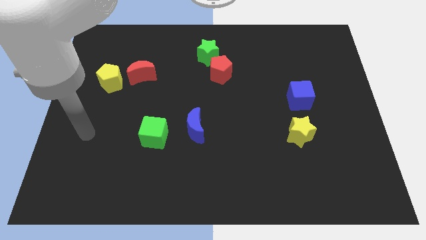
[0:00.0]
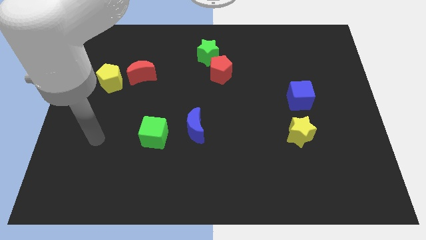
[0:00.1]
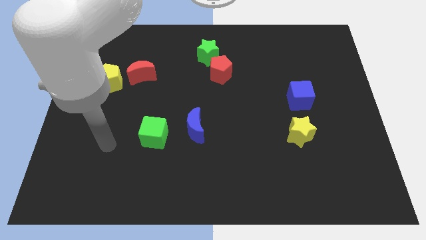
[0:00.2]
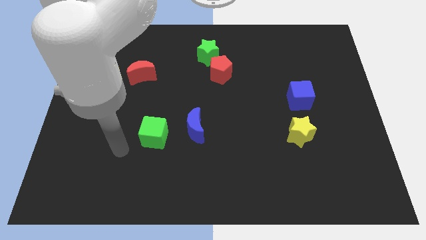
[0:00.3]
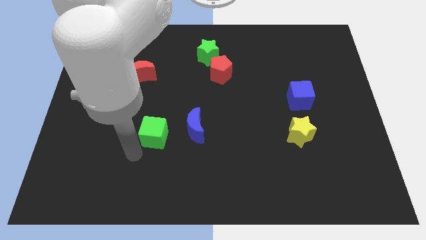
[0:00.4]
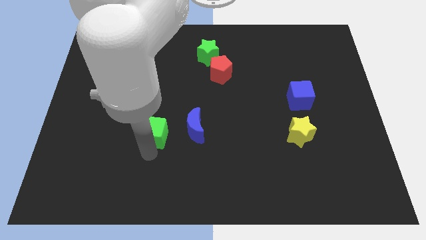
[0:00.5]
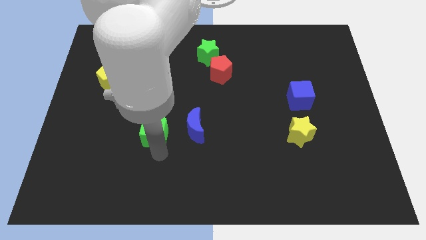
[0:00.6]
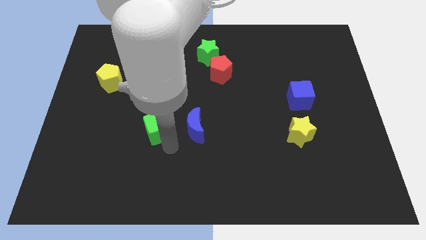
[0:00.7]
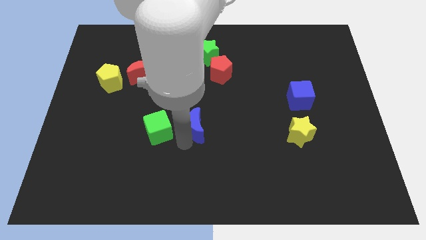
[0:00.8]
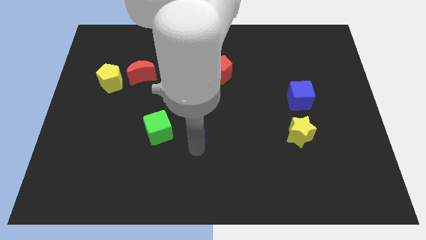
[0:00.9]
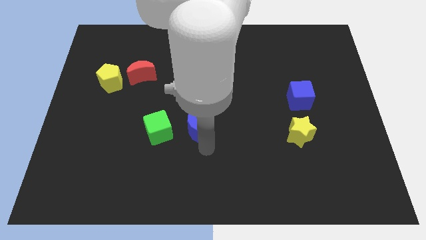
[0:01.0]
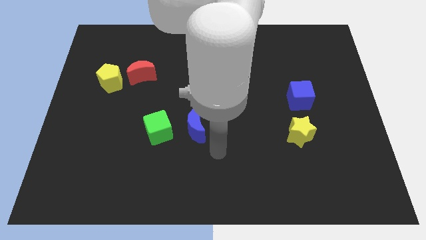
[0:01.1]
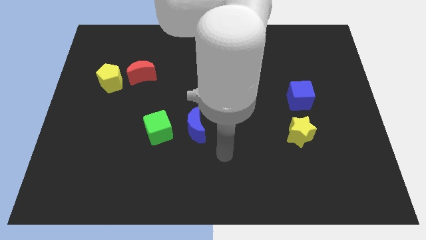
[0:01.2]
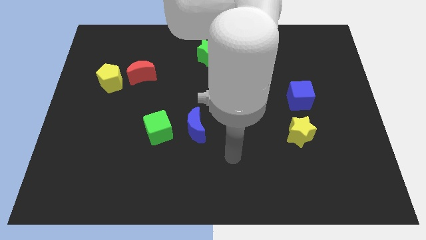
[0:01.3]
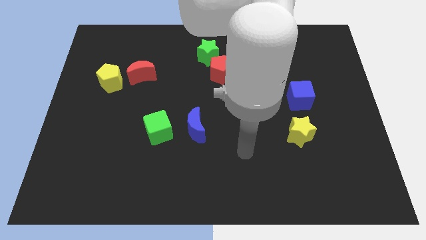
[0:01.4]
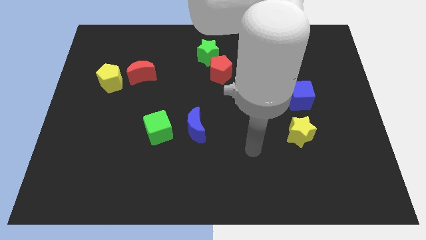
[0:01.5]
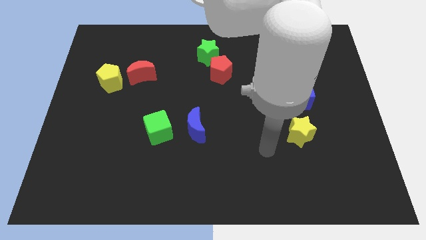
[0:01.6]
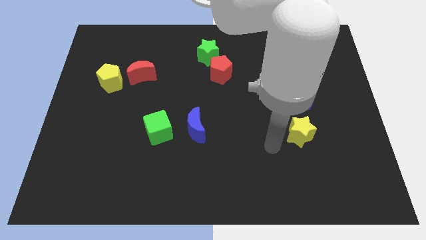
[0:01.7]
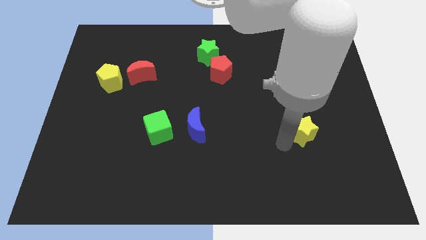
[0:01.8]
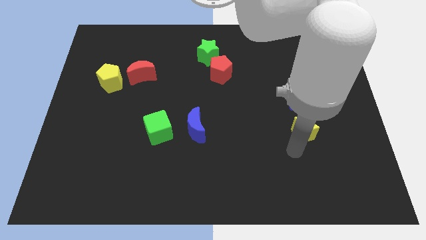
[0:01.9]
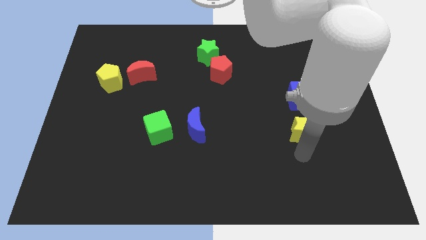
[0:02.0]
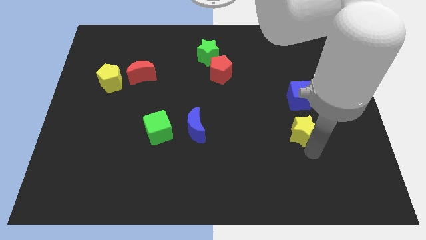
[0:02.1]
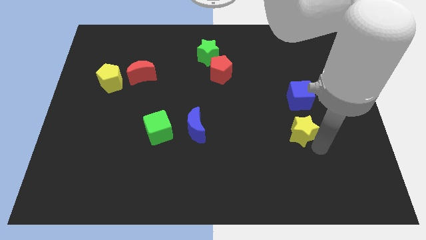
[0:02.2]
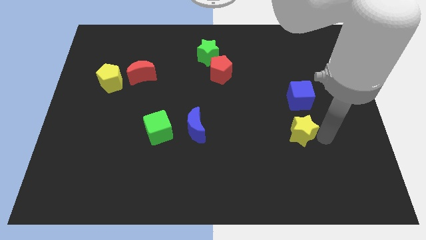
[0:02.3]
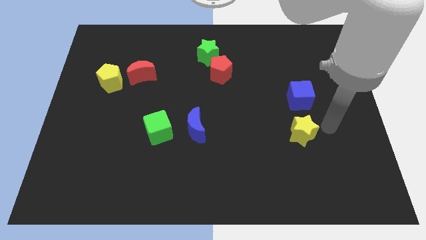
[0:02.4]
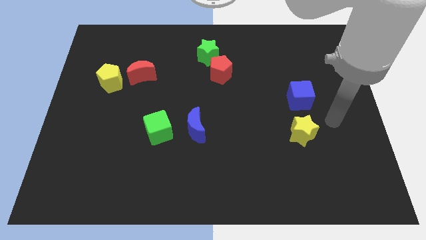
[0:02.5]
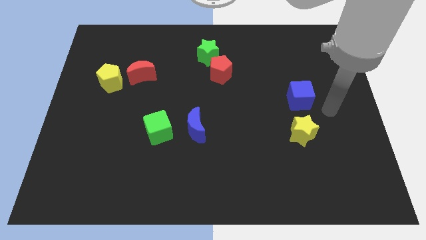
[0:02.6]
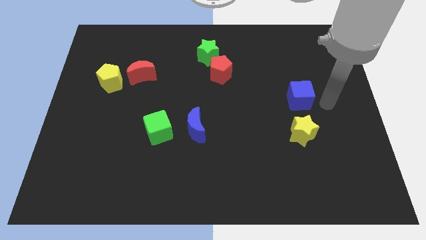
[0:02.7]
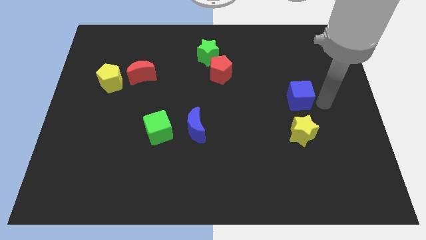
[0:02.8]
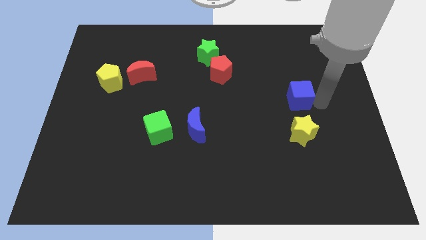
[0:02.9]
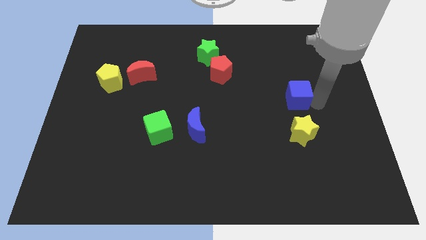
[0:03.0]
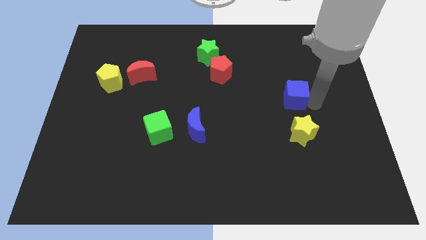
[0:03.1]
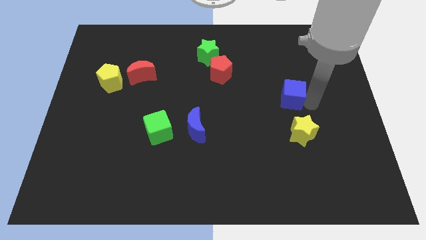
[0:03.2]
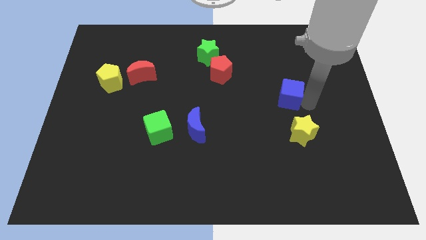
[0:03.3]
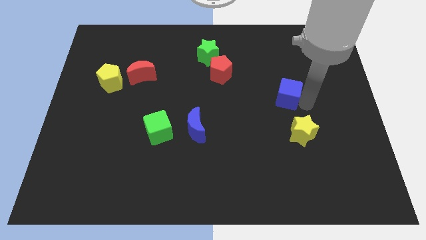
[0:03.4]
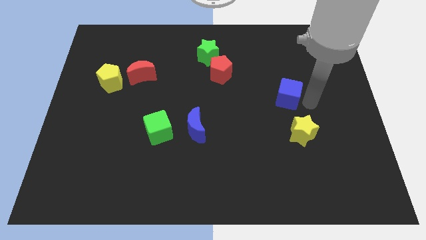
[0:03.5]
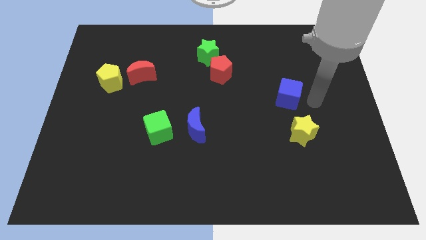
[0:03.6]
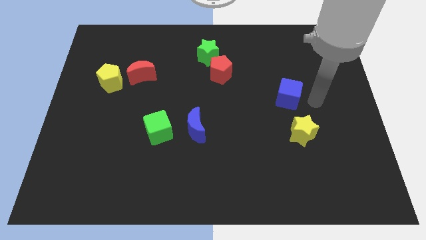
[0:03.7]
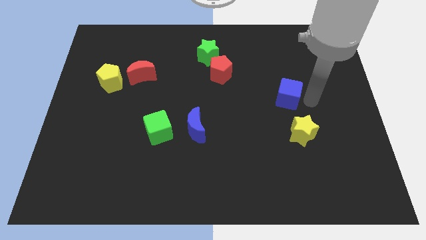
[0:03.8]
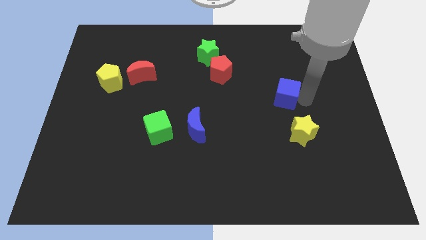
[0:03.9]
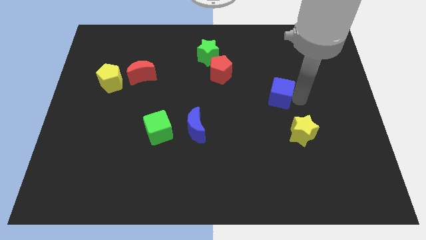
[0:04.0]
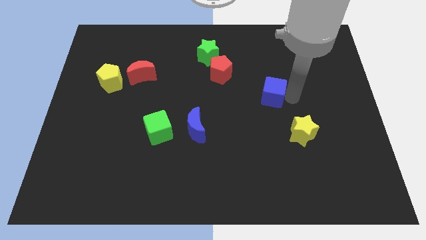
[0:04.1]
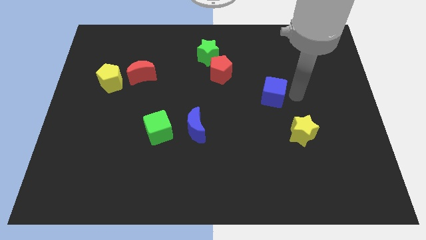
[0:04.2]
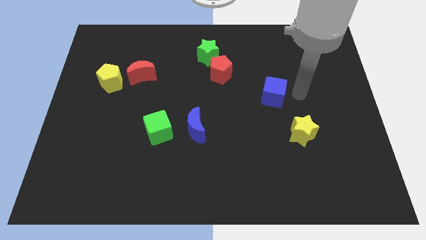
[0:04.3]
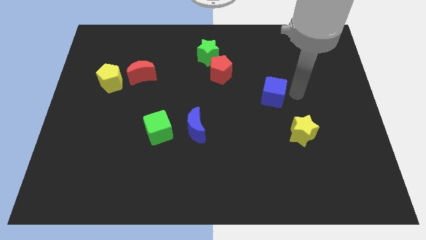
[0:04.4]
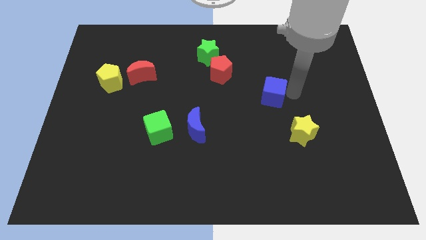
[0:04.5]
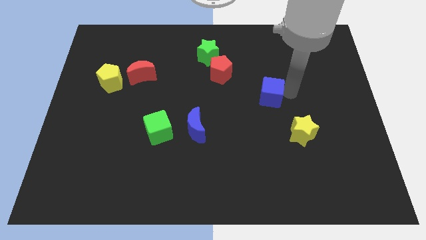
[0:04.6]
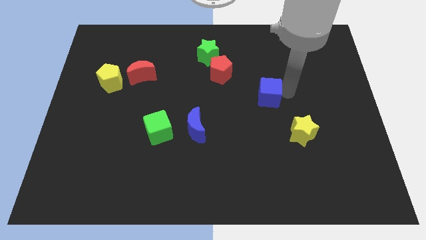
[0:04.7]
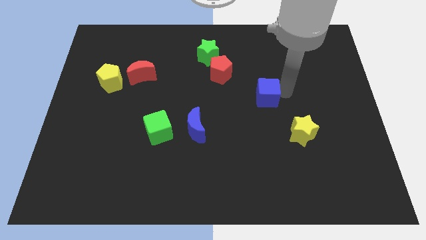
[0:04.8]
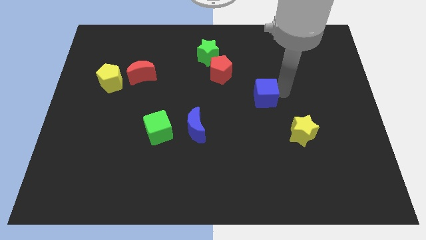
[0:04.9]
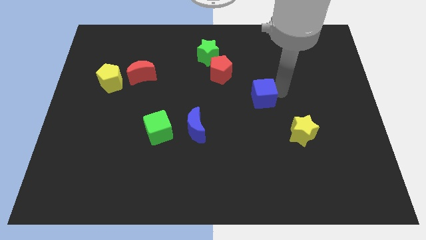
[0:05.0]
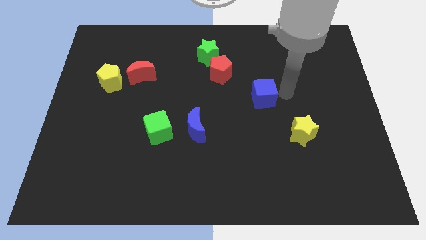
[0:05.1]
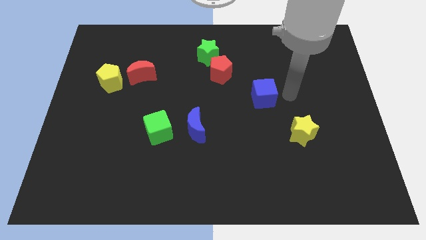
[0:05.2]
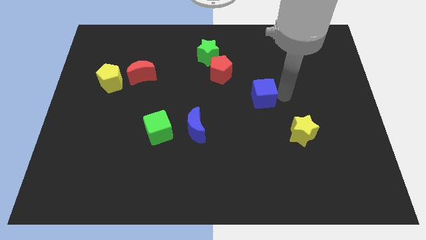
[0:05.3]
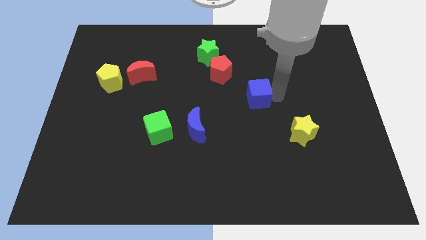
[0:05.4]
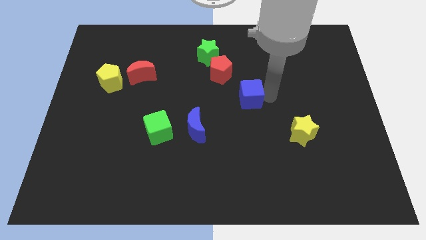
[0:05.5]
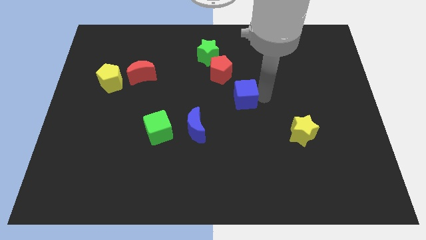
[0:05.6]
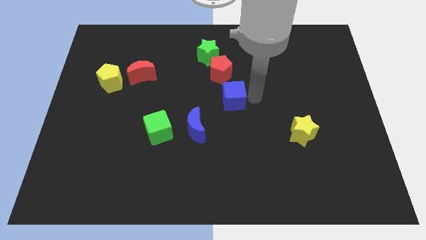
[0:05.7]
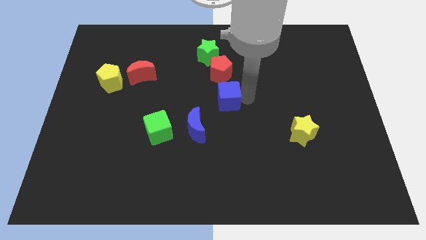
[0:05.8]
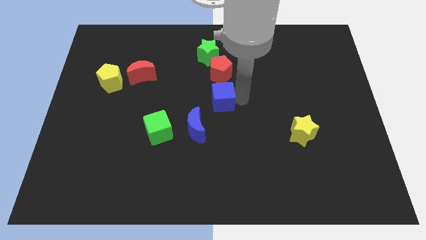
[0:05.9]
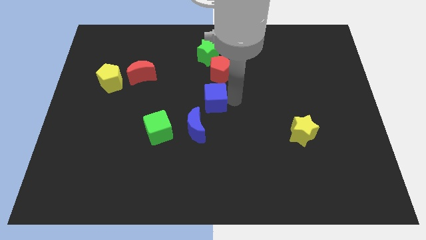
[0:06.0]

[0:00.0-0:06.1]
push the blue cube left

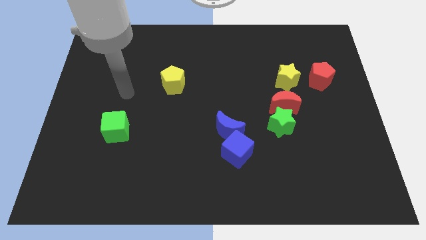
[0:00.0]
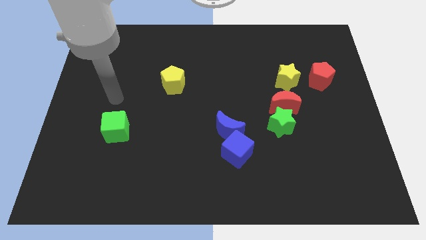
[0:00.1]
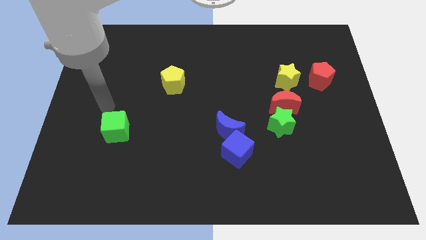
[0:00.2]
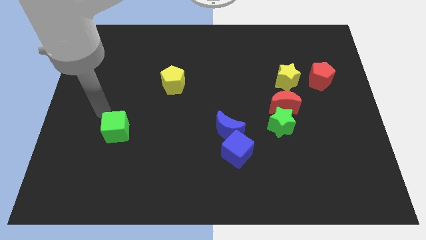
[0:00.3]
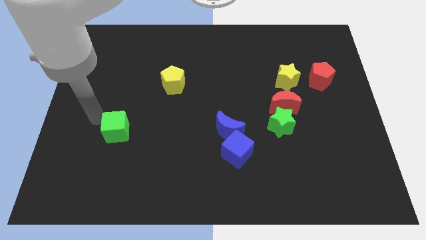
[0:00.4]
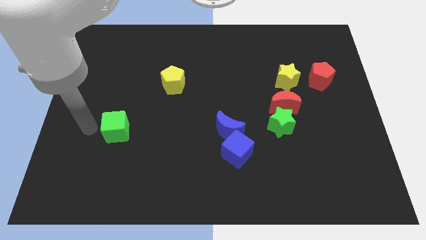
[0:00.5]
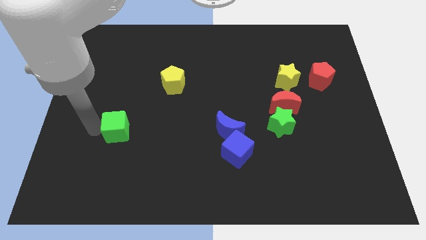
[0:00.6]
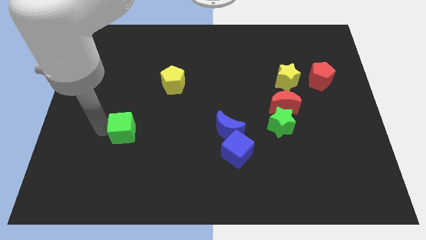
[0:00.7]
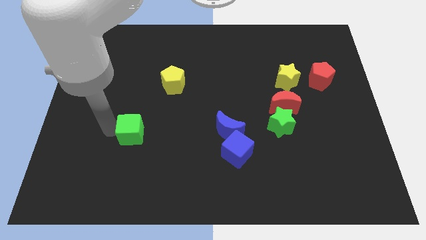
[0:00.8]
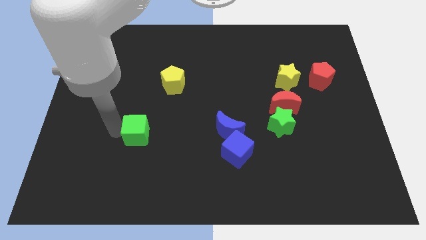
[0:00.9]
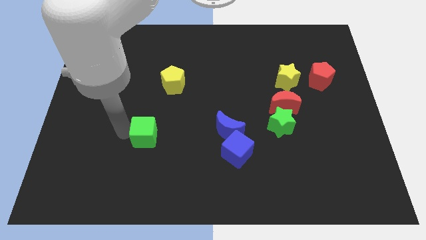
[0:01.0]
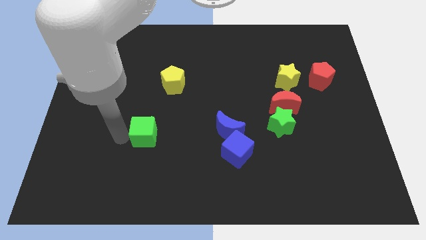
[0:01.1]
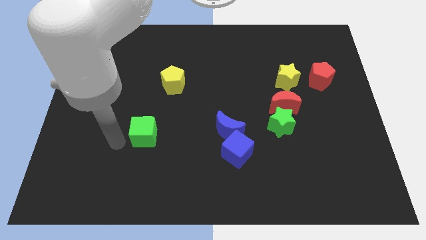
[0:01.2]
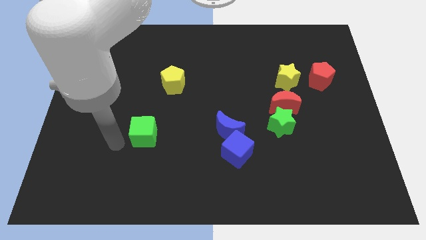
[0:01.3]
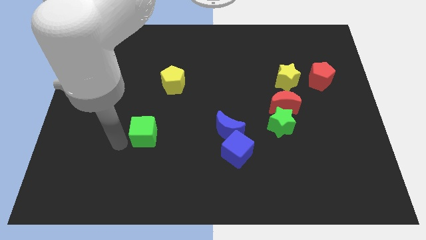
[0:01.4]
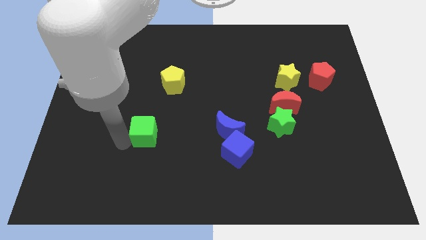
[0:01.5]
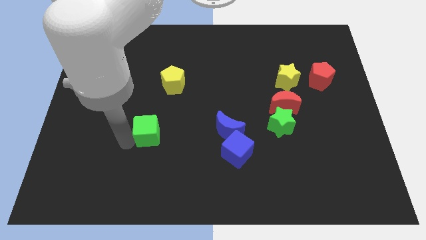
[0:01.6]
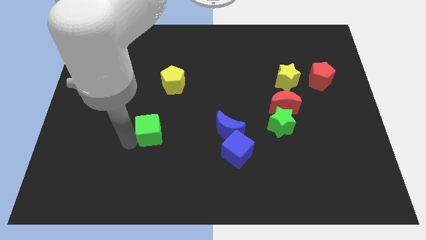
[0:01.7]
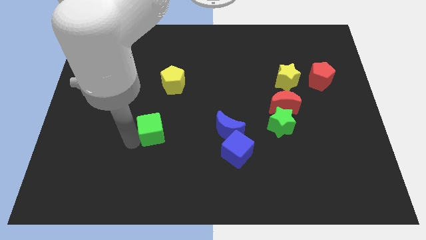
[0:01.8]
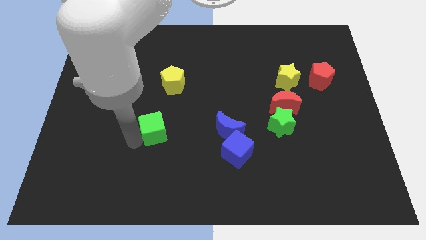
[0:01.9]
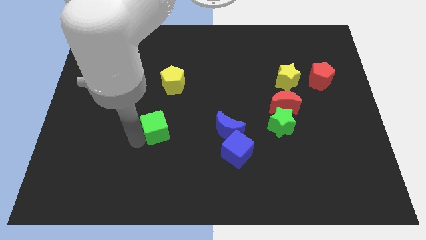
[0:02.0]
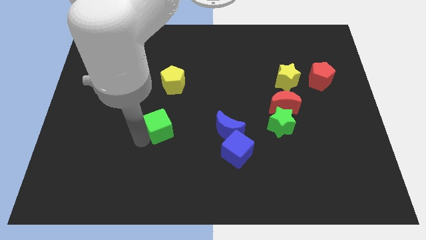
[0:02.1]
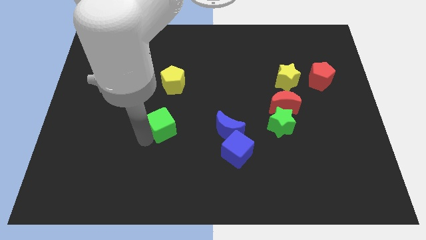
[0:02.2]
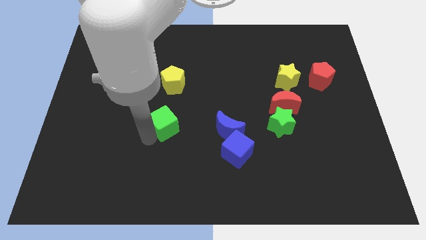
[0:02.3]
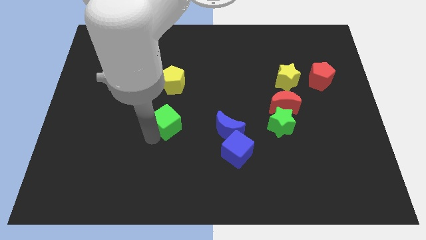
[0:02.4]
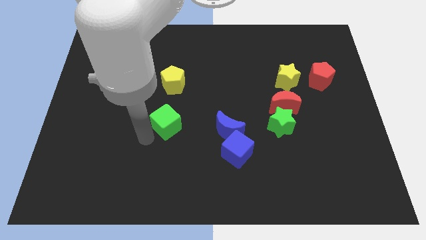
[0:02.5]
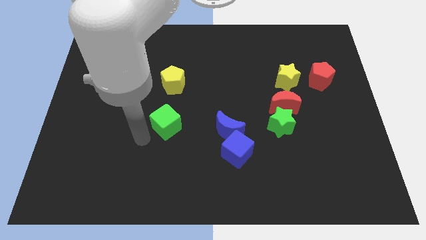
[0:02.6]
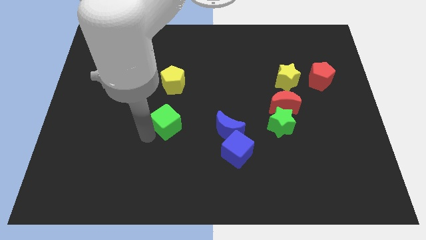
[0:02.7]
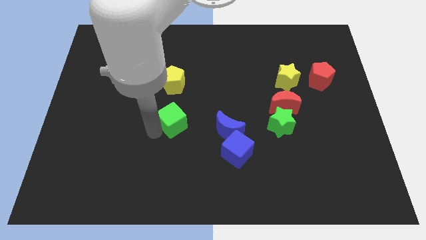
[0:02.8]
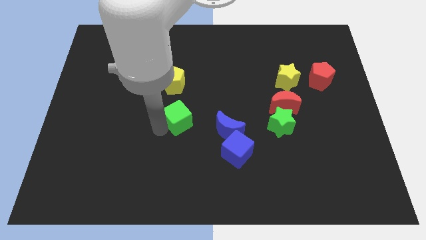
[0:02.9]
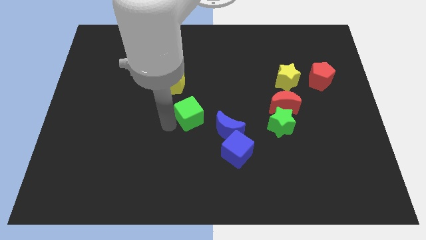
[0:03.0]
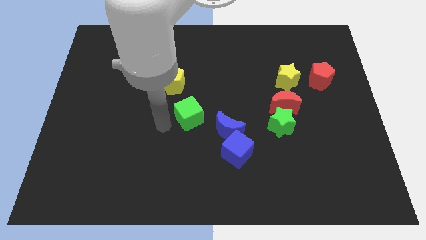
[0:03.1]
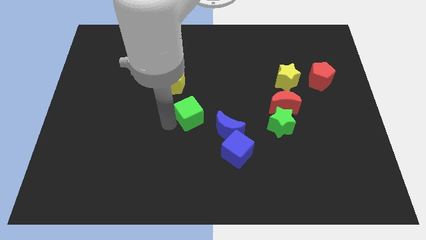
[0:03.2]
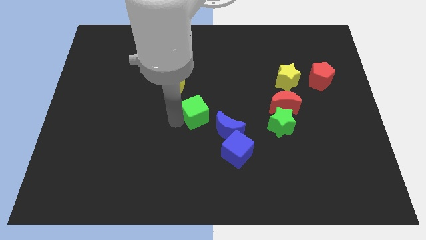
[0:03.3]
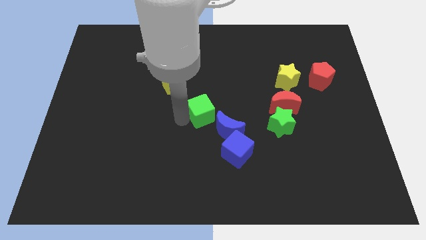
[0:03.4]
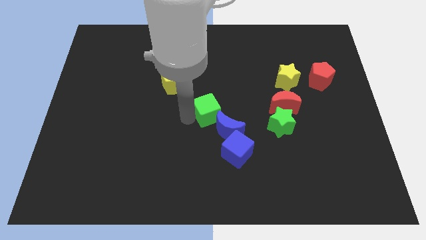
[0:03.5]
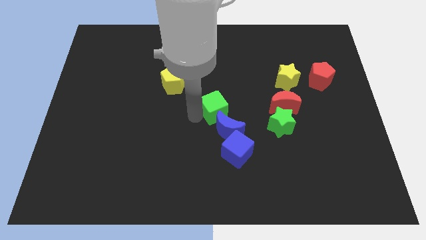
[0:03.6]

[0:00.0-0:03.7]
slide the green cube to the right
